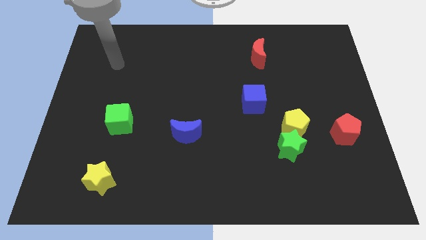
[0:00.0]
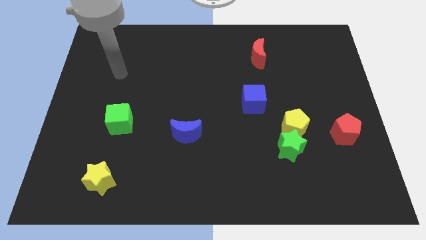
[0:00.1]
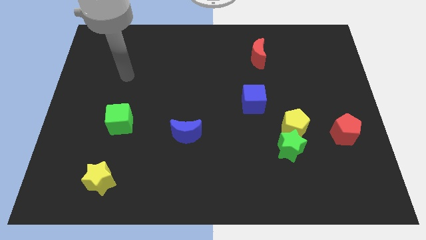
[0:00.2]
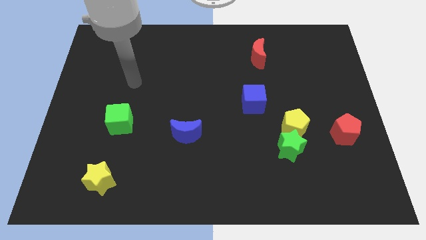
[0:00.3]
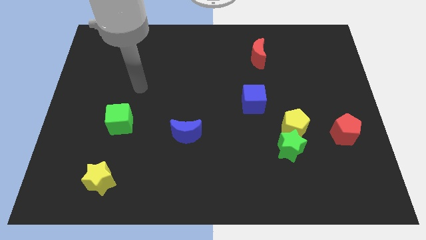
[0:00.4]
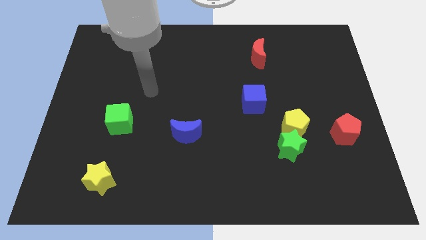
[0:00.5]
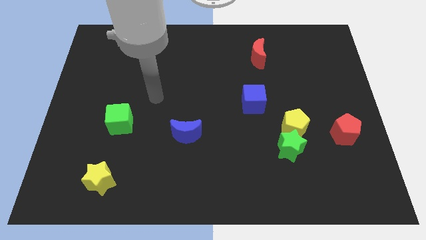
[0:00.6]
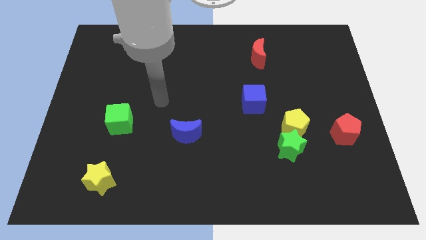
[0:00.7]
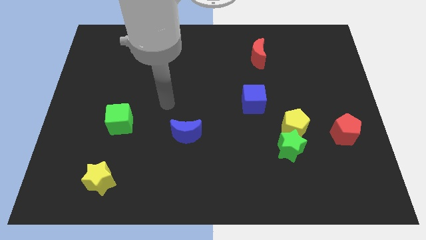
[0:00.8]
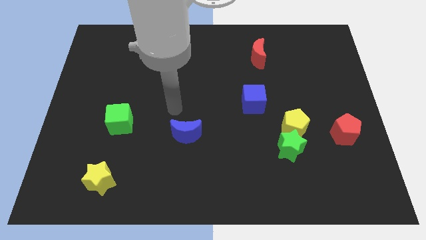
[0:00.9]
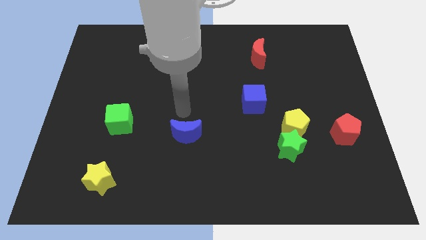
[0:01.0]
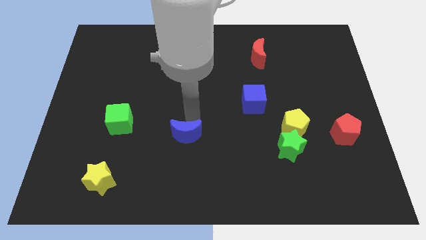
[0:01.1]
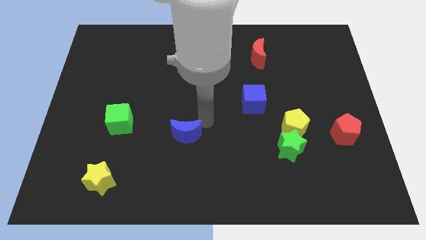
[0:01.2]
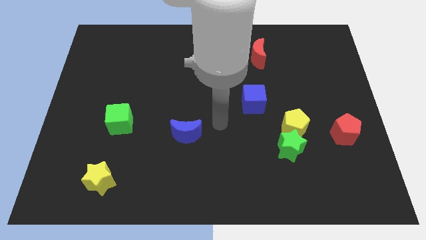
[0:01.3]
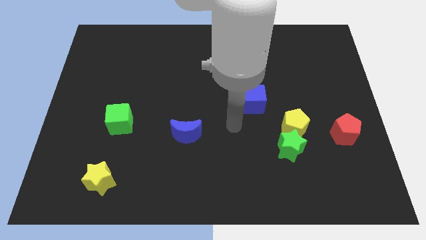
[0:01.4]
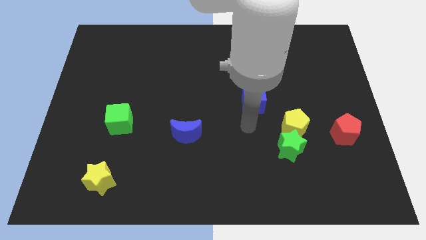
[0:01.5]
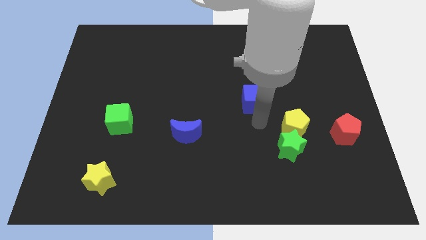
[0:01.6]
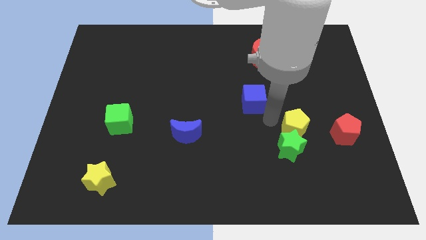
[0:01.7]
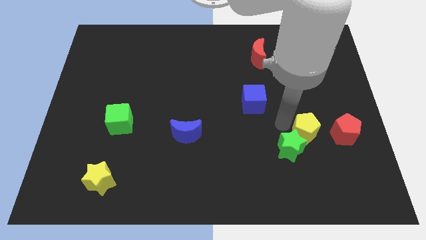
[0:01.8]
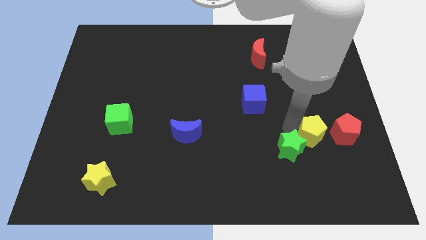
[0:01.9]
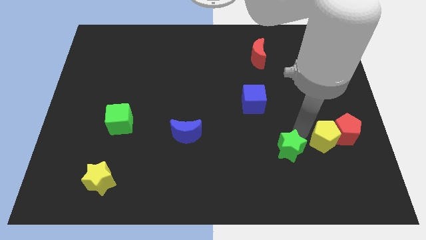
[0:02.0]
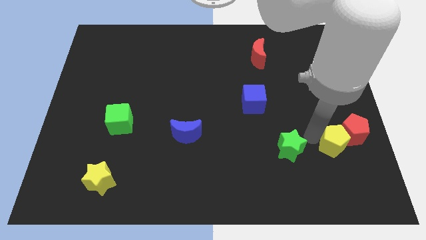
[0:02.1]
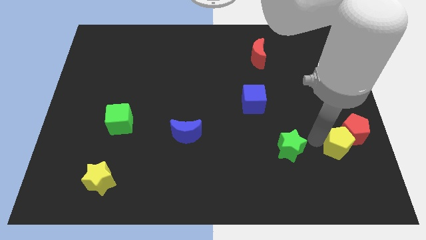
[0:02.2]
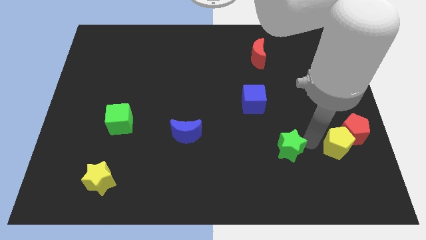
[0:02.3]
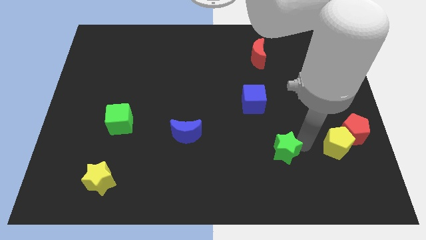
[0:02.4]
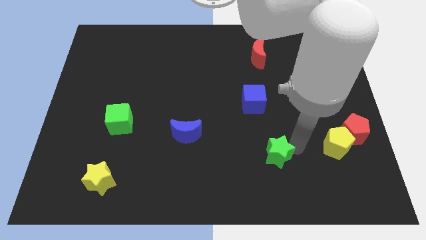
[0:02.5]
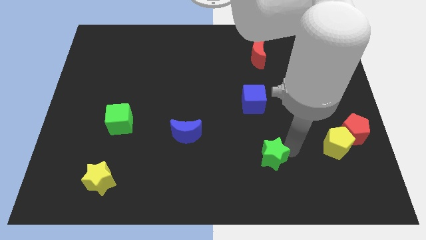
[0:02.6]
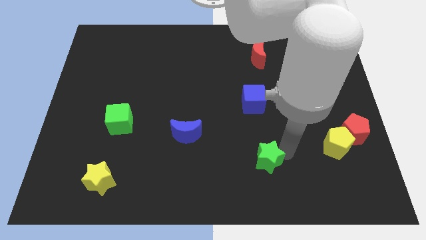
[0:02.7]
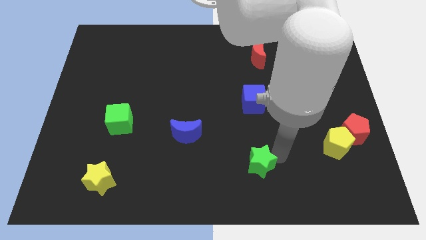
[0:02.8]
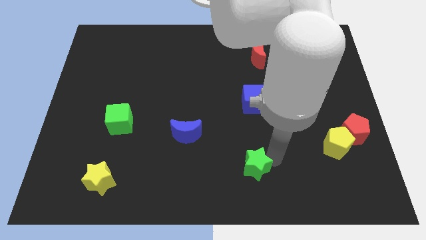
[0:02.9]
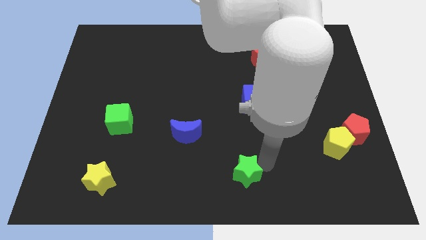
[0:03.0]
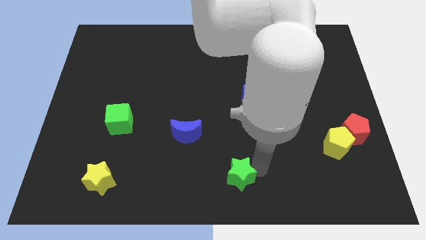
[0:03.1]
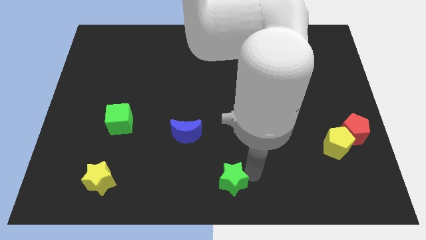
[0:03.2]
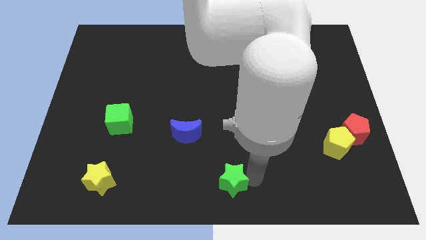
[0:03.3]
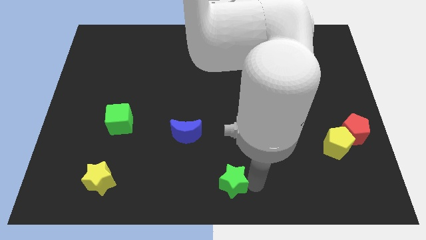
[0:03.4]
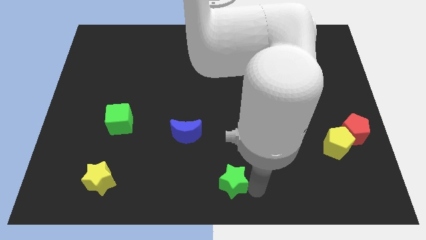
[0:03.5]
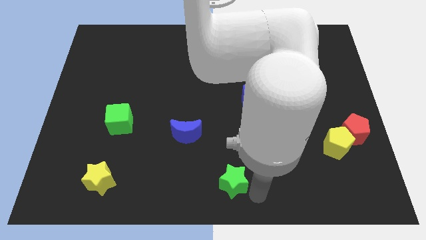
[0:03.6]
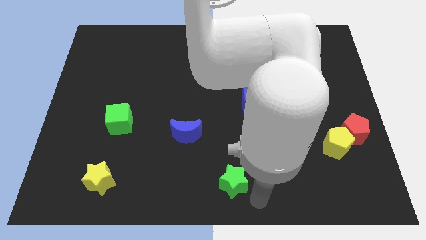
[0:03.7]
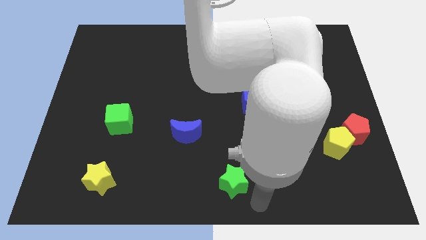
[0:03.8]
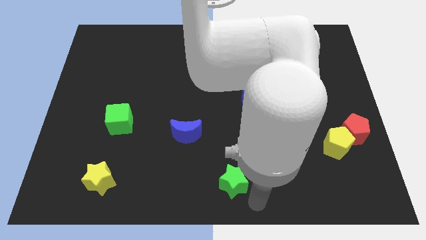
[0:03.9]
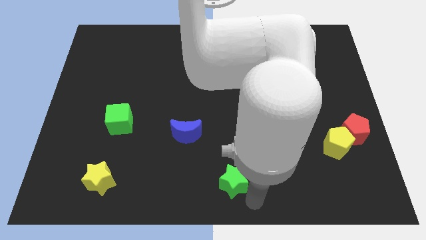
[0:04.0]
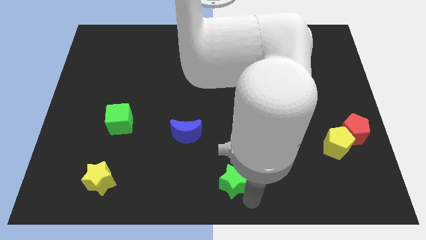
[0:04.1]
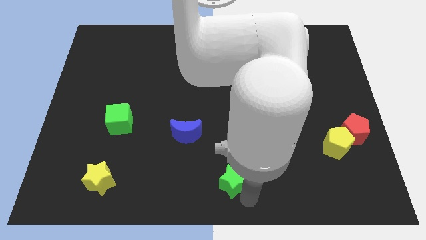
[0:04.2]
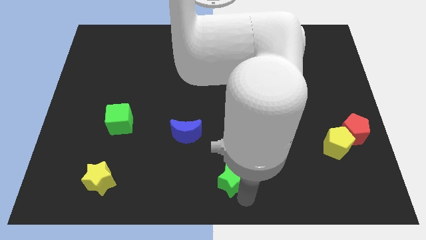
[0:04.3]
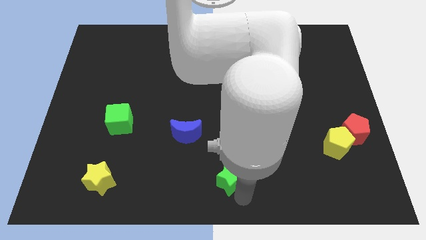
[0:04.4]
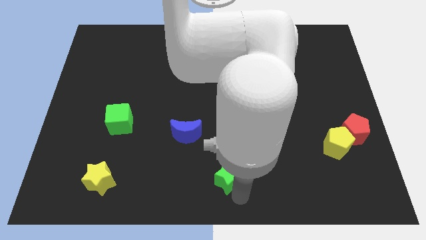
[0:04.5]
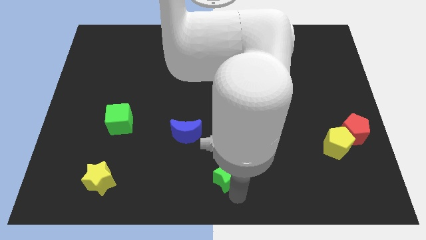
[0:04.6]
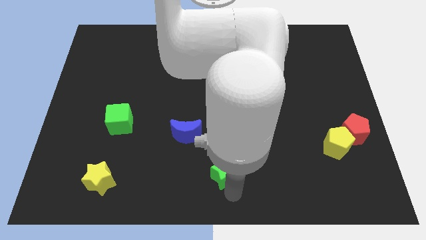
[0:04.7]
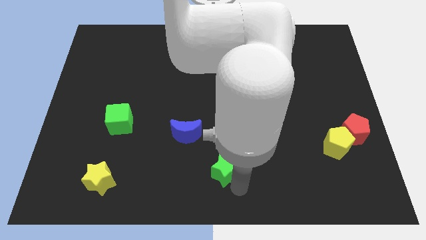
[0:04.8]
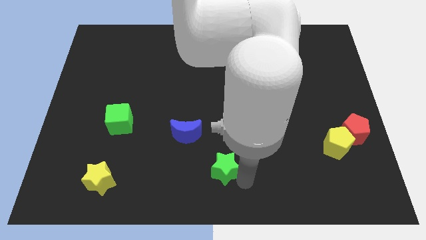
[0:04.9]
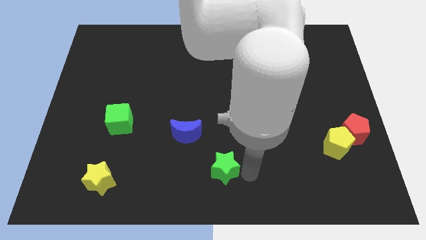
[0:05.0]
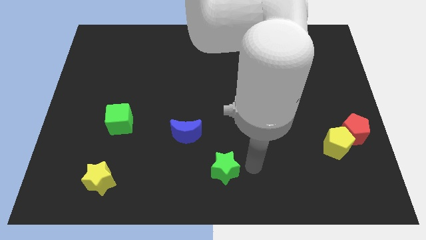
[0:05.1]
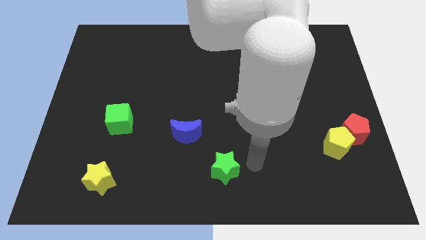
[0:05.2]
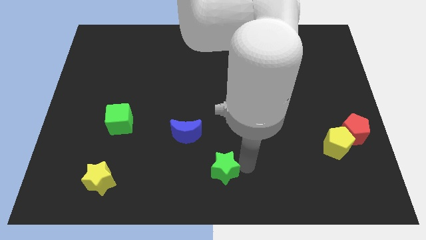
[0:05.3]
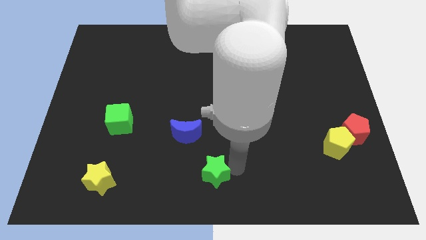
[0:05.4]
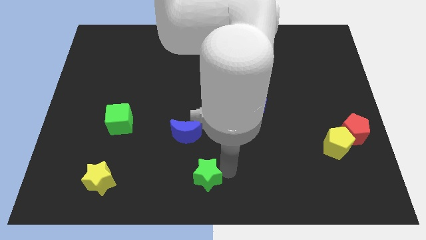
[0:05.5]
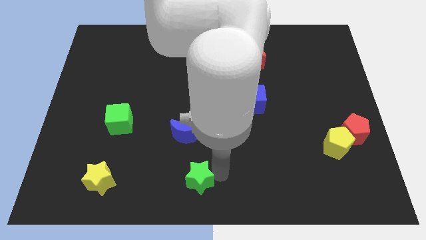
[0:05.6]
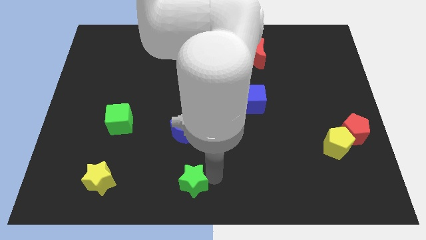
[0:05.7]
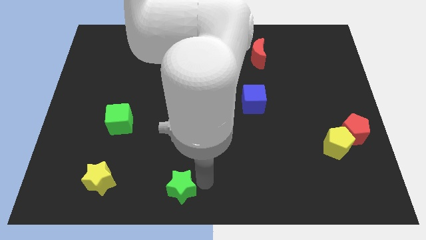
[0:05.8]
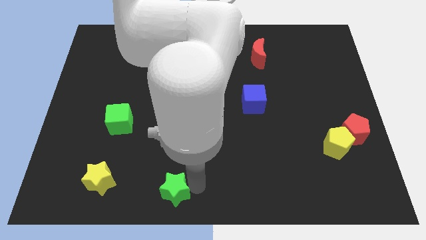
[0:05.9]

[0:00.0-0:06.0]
slide the green star to the right side of the yellow star

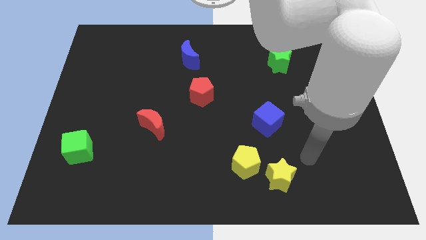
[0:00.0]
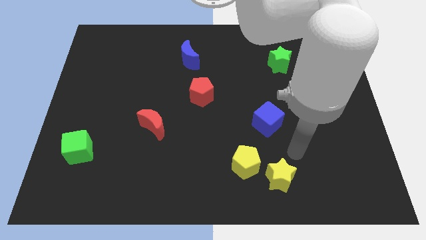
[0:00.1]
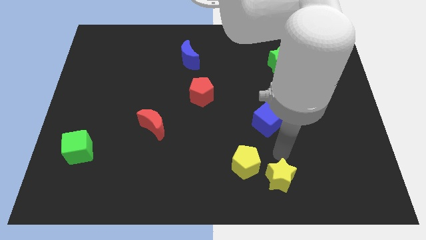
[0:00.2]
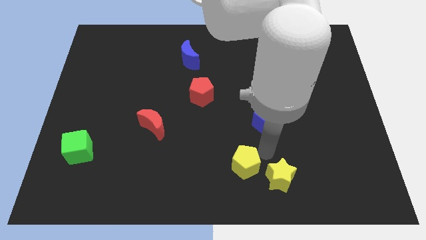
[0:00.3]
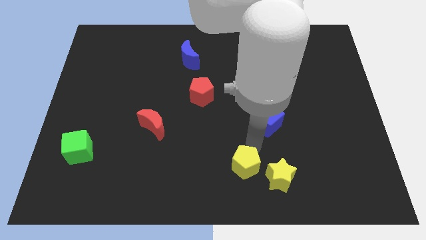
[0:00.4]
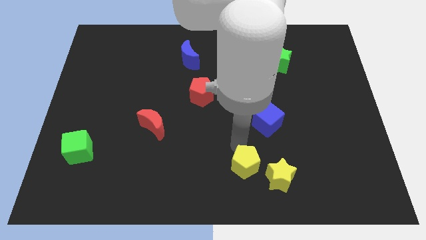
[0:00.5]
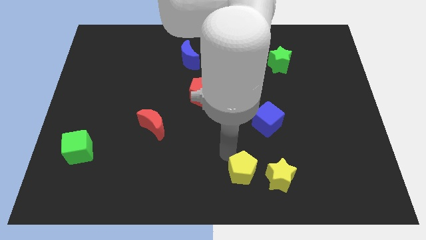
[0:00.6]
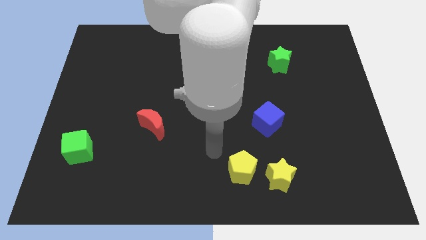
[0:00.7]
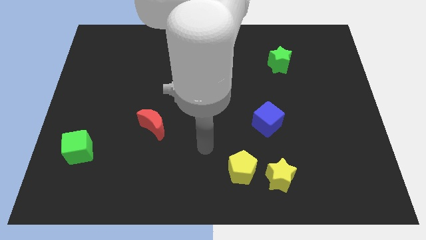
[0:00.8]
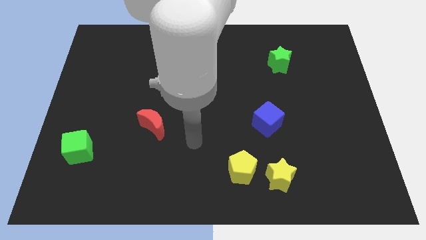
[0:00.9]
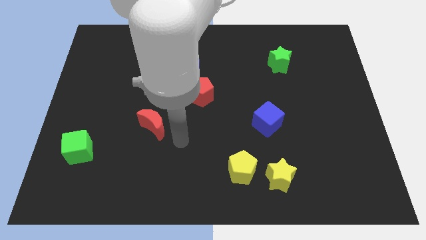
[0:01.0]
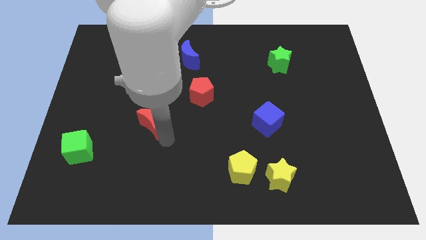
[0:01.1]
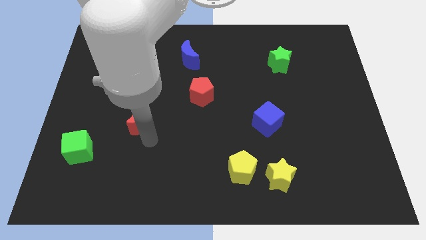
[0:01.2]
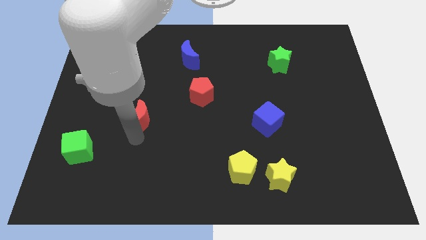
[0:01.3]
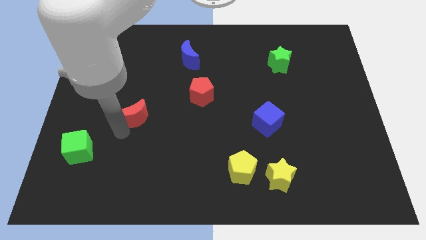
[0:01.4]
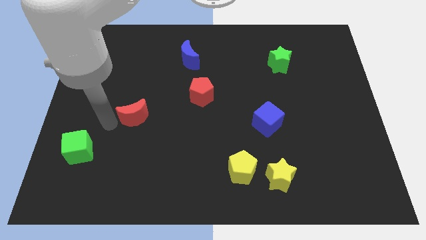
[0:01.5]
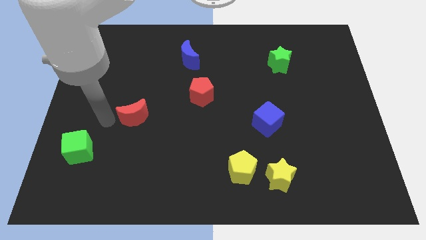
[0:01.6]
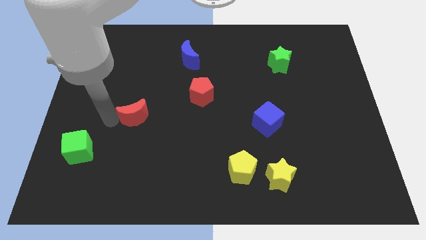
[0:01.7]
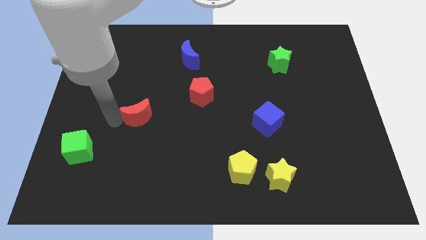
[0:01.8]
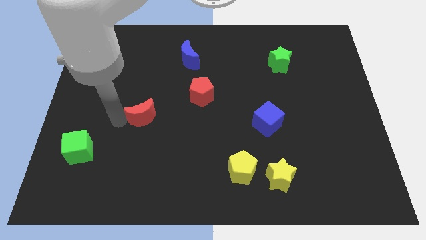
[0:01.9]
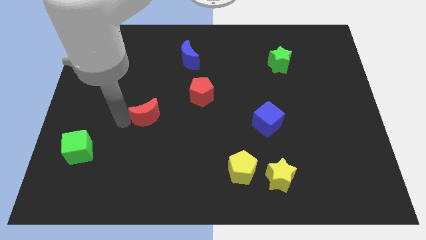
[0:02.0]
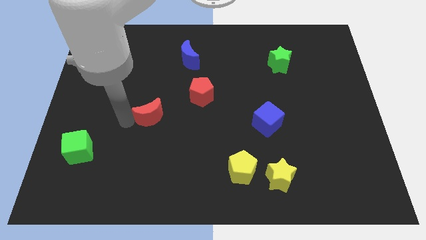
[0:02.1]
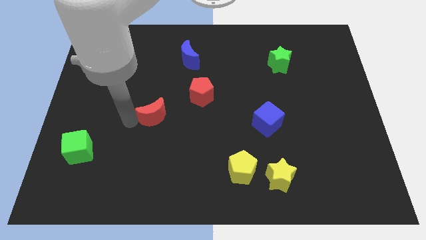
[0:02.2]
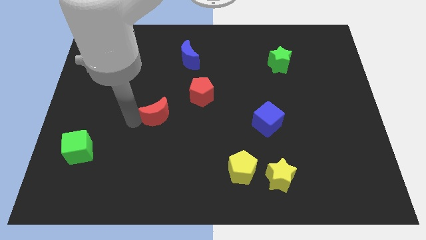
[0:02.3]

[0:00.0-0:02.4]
slide the red moon diagonally down and to the left of the red pentagon
